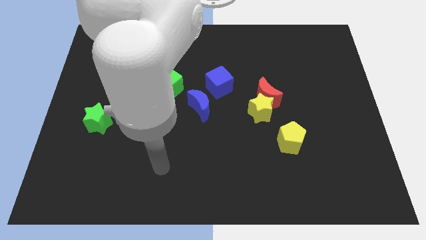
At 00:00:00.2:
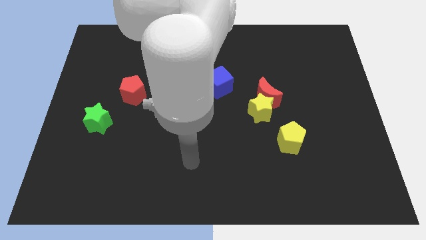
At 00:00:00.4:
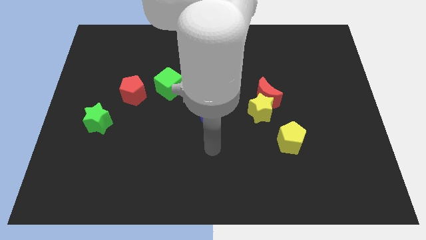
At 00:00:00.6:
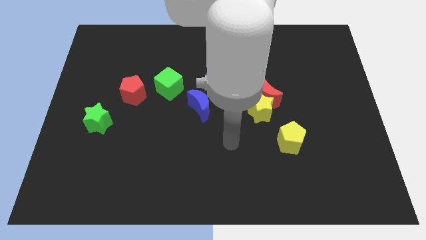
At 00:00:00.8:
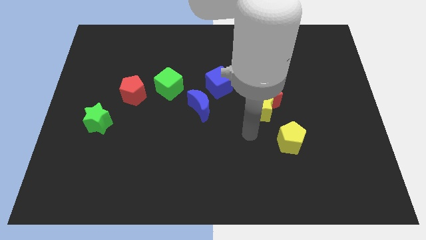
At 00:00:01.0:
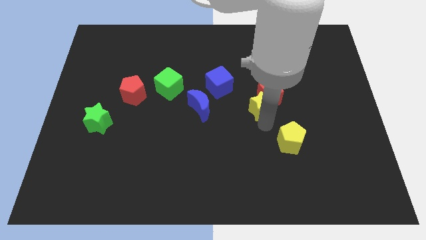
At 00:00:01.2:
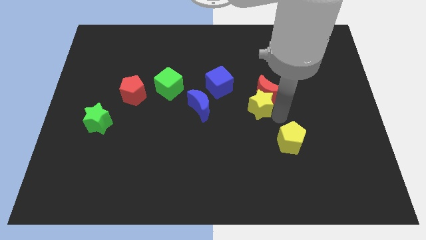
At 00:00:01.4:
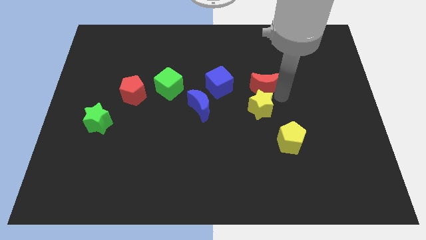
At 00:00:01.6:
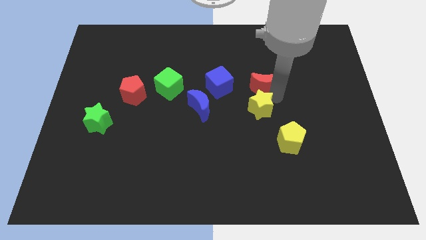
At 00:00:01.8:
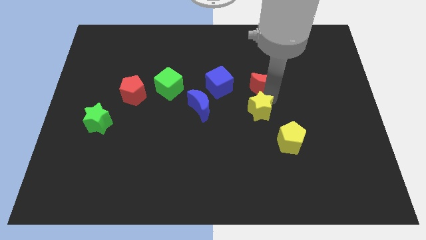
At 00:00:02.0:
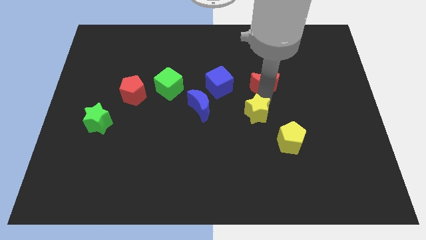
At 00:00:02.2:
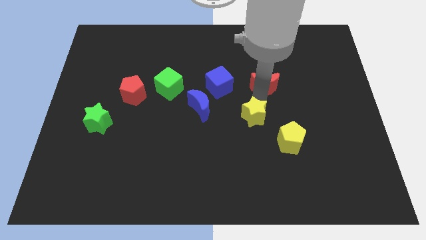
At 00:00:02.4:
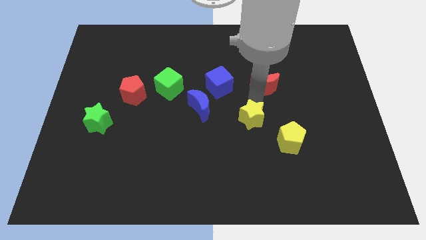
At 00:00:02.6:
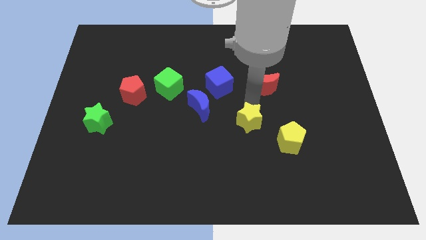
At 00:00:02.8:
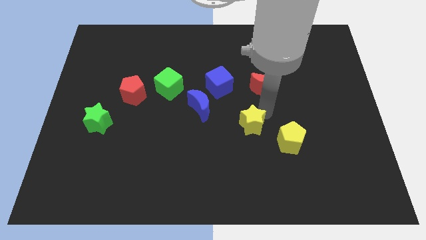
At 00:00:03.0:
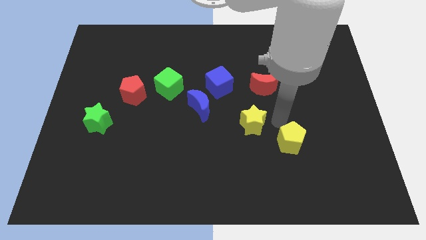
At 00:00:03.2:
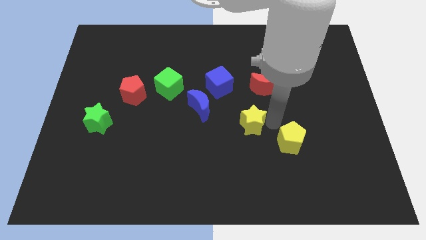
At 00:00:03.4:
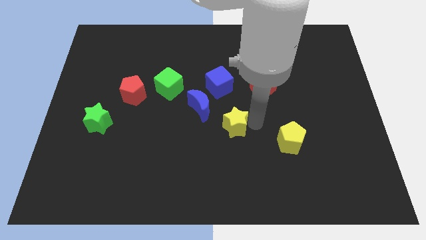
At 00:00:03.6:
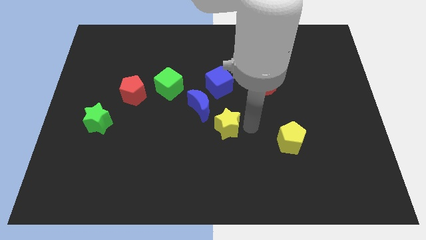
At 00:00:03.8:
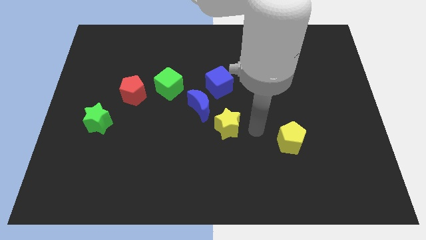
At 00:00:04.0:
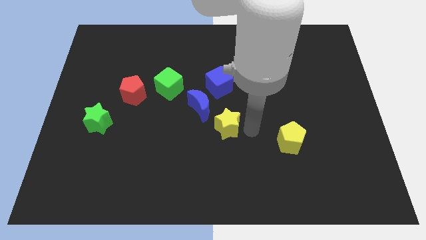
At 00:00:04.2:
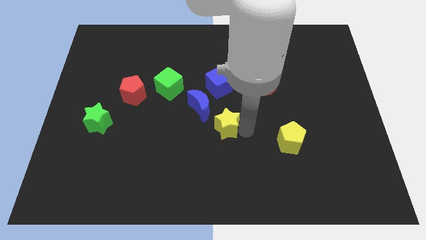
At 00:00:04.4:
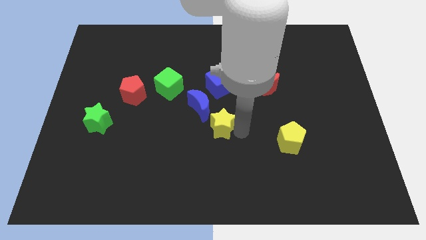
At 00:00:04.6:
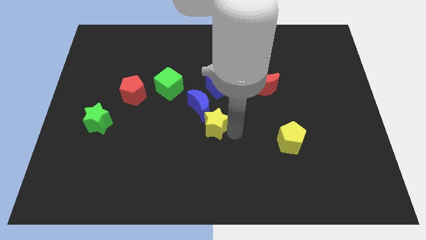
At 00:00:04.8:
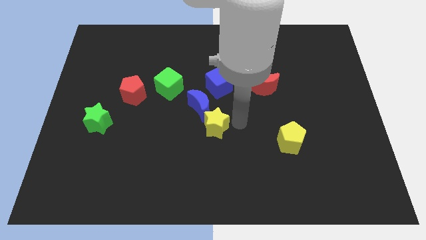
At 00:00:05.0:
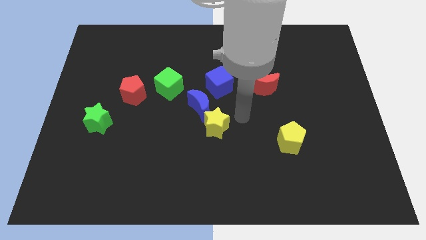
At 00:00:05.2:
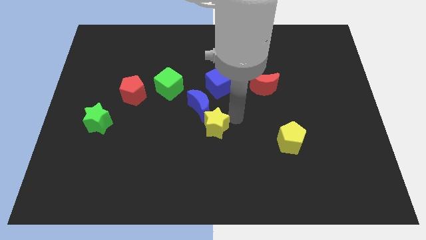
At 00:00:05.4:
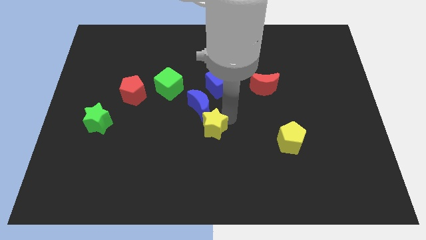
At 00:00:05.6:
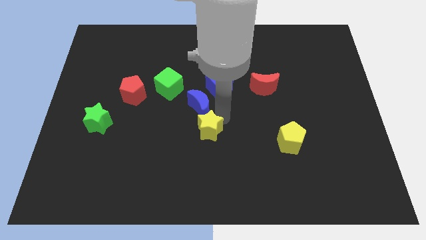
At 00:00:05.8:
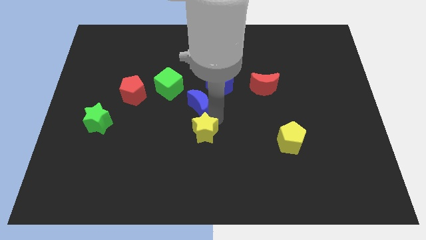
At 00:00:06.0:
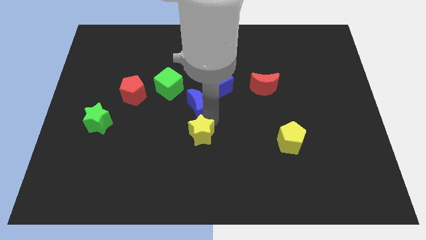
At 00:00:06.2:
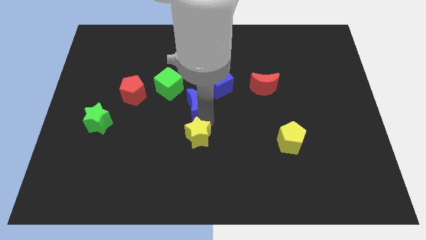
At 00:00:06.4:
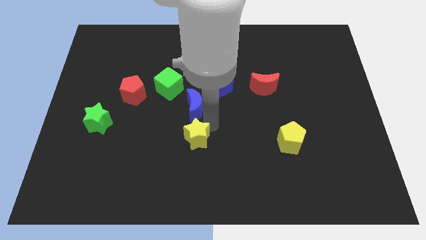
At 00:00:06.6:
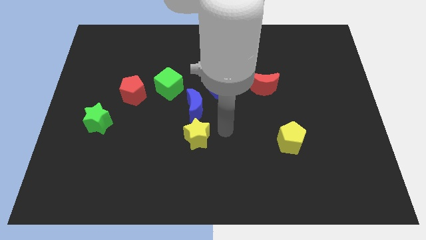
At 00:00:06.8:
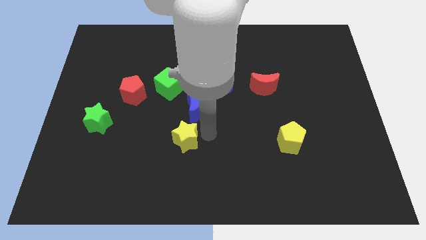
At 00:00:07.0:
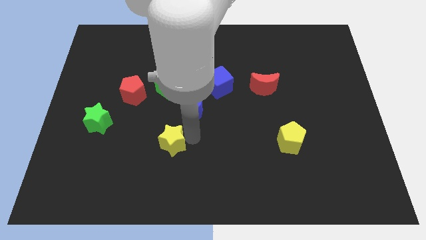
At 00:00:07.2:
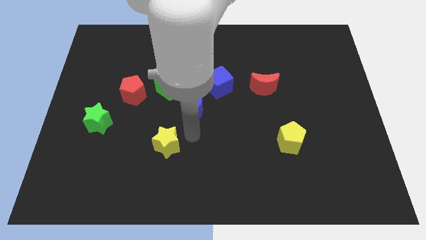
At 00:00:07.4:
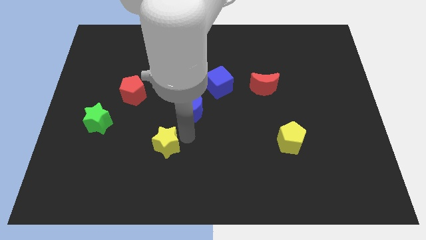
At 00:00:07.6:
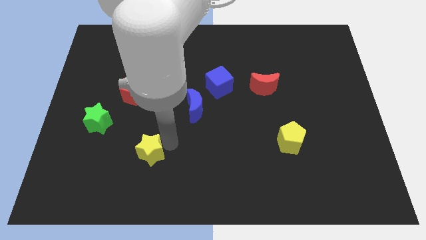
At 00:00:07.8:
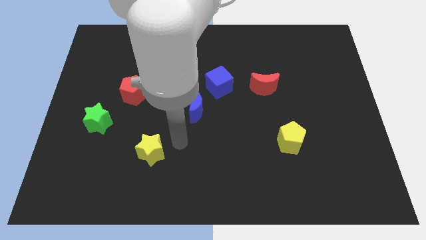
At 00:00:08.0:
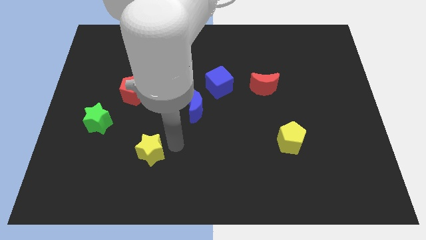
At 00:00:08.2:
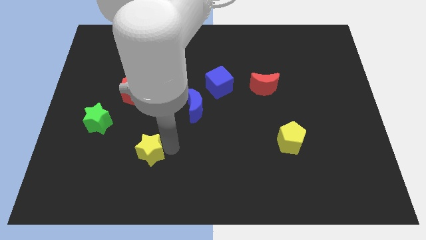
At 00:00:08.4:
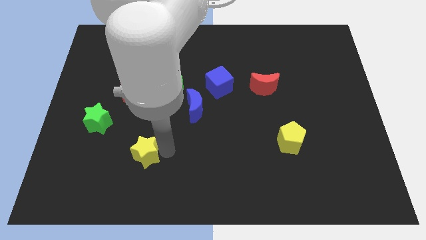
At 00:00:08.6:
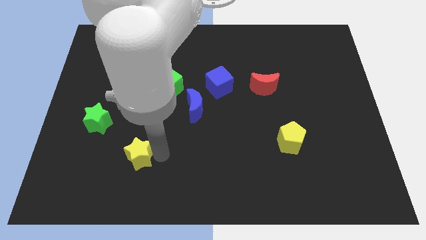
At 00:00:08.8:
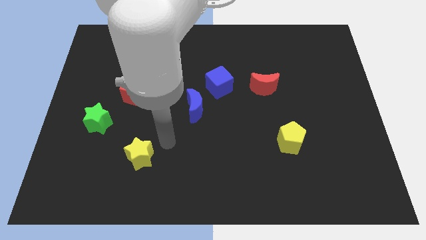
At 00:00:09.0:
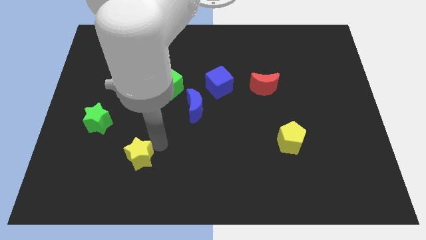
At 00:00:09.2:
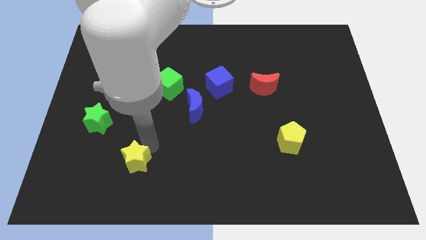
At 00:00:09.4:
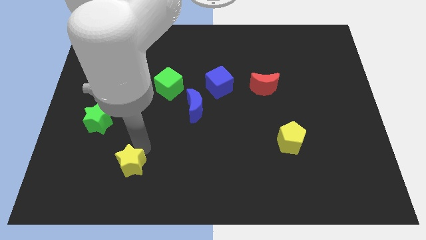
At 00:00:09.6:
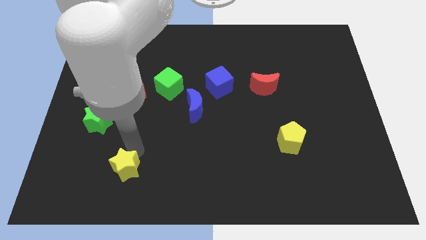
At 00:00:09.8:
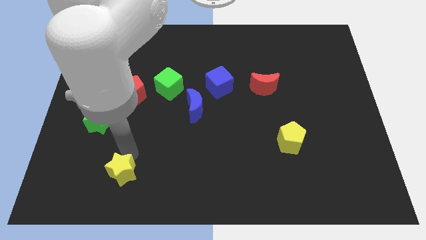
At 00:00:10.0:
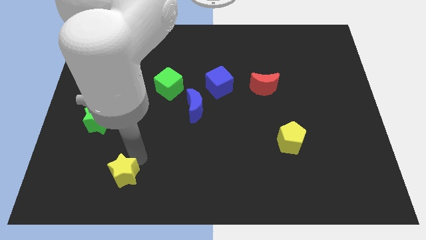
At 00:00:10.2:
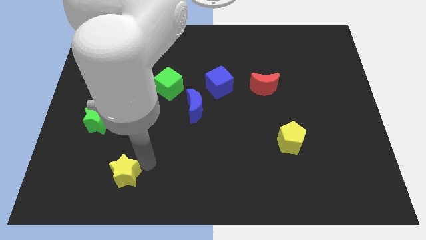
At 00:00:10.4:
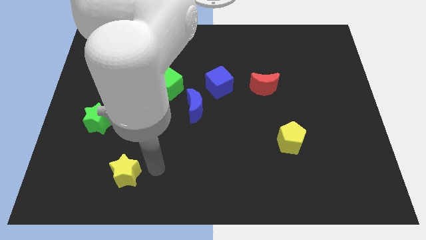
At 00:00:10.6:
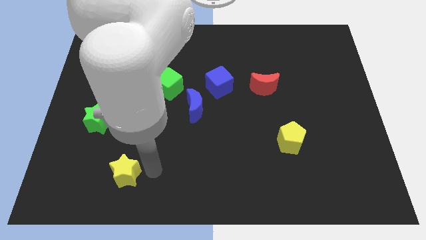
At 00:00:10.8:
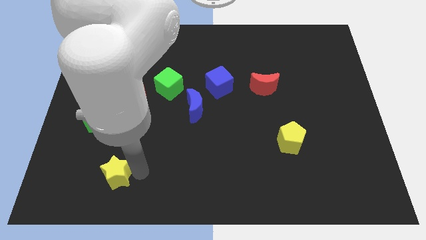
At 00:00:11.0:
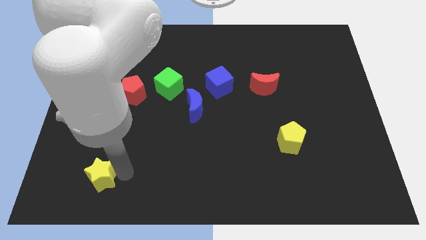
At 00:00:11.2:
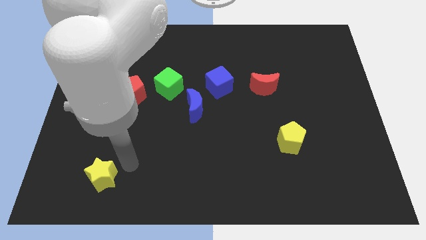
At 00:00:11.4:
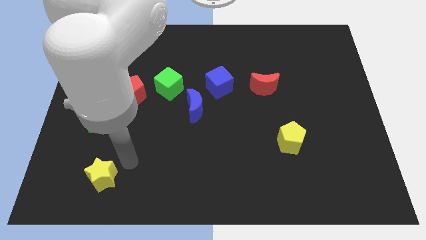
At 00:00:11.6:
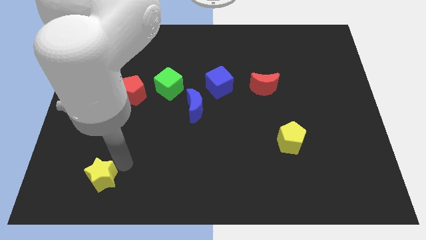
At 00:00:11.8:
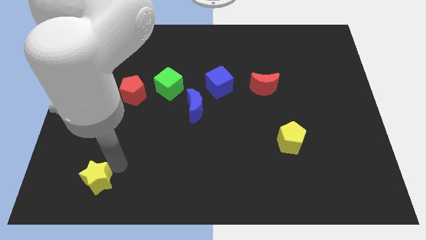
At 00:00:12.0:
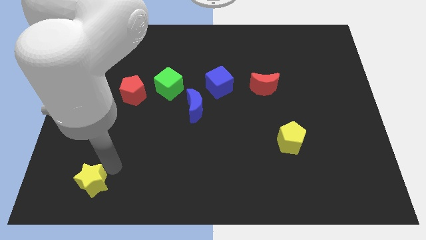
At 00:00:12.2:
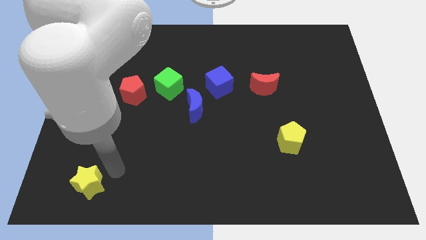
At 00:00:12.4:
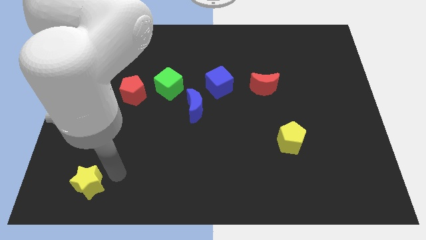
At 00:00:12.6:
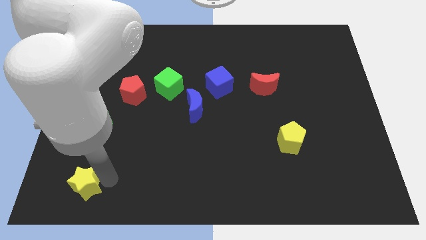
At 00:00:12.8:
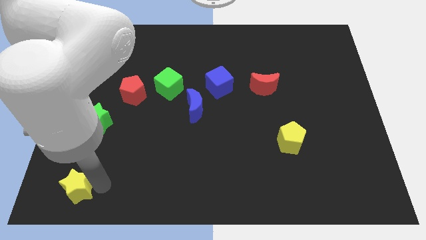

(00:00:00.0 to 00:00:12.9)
move the yellow star to the bottom left

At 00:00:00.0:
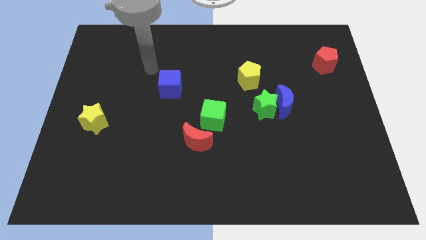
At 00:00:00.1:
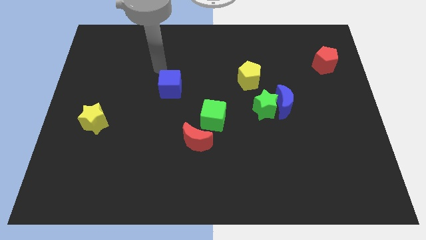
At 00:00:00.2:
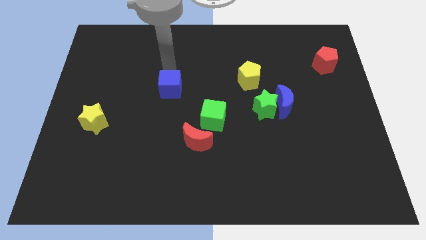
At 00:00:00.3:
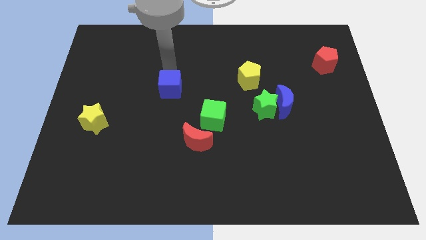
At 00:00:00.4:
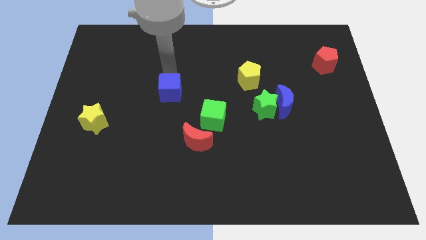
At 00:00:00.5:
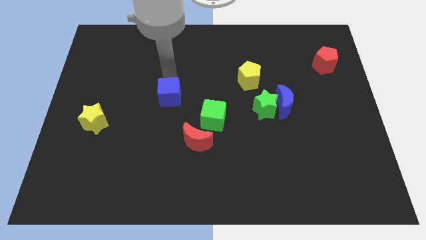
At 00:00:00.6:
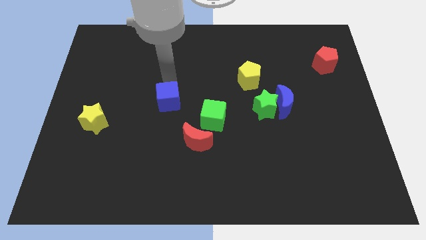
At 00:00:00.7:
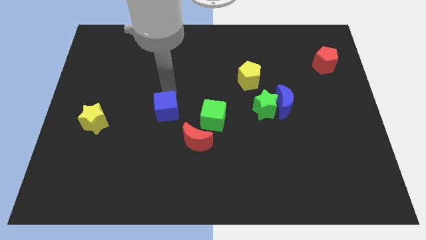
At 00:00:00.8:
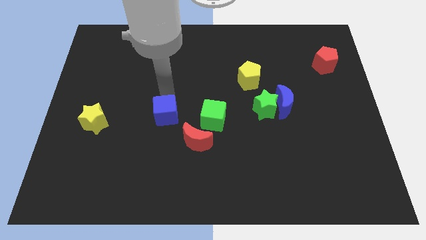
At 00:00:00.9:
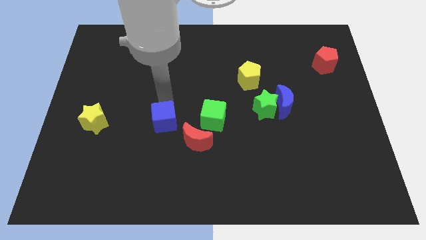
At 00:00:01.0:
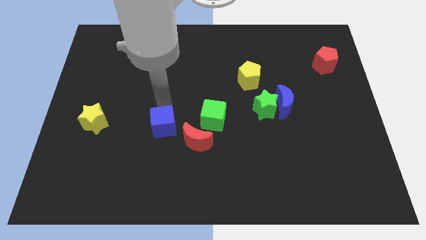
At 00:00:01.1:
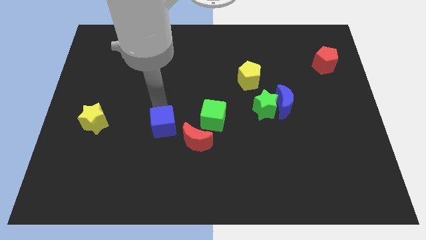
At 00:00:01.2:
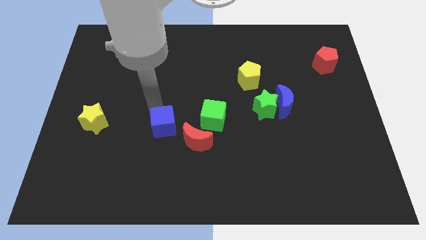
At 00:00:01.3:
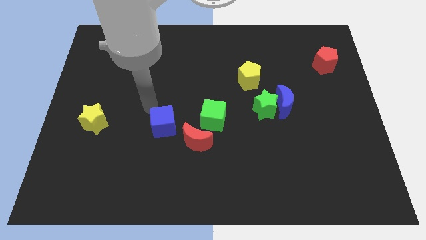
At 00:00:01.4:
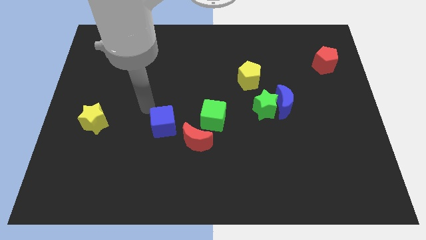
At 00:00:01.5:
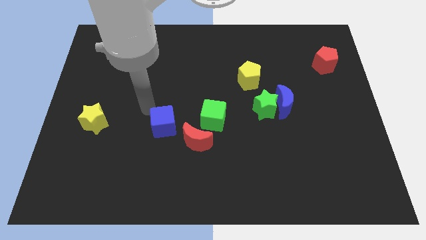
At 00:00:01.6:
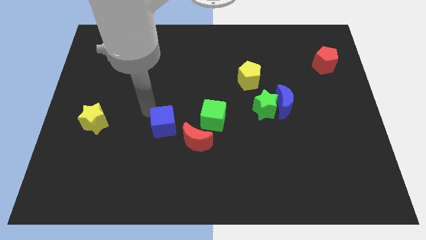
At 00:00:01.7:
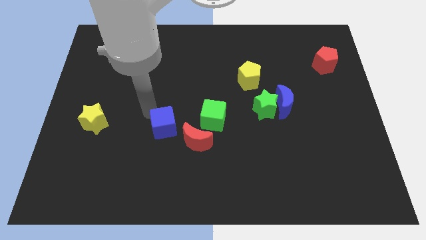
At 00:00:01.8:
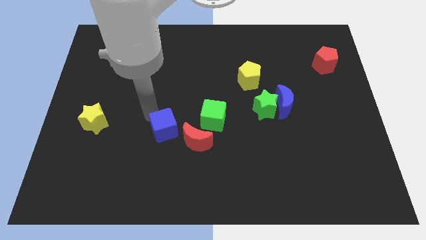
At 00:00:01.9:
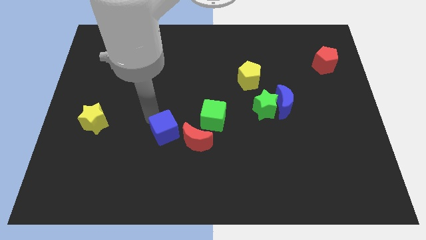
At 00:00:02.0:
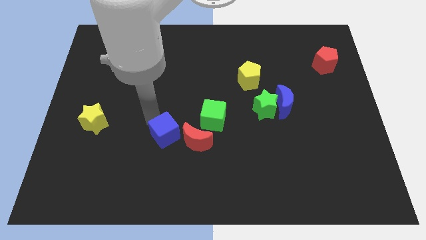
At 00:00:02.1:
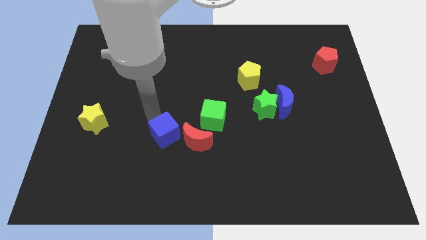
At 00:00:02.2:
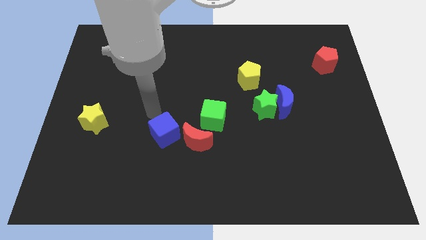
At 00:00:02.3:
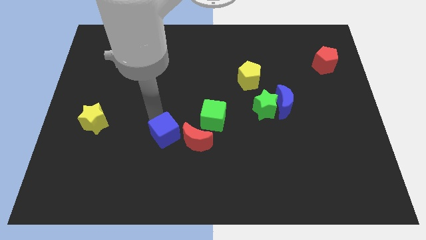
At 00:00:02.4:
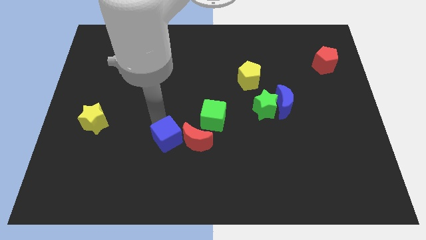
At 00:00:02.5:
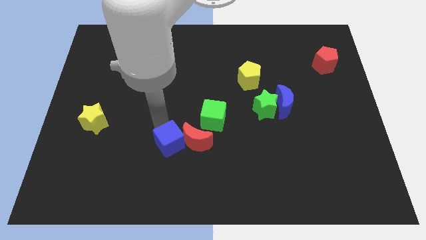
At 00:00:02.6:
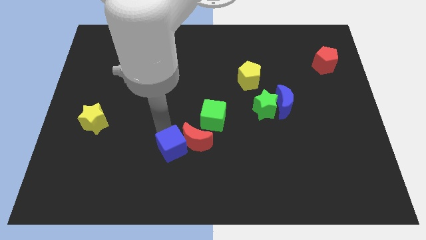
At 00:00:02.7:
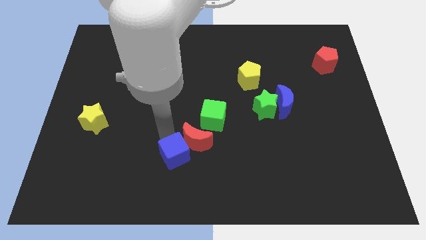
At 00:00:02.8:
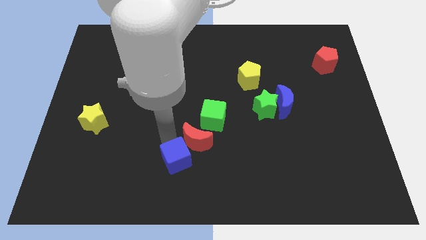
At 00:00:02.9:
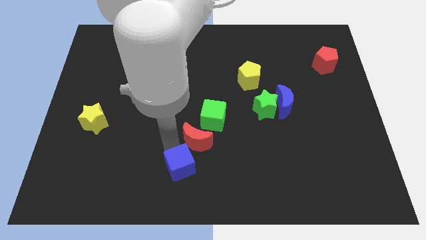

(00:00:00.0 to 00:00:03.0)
move the blue cube to the bottom
